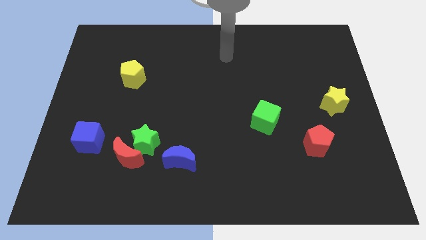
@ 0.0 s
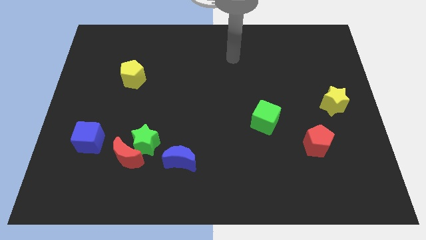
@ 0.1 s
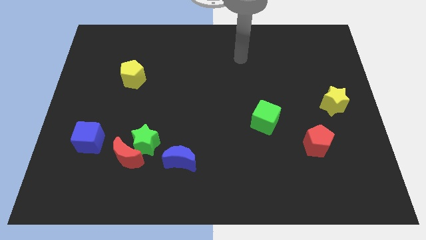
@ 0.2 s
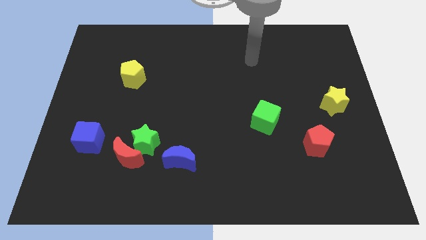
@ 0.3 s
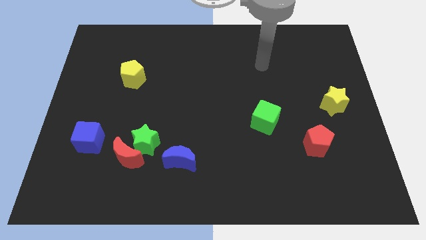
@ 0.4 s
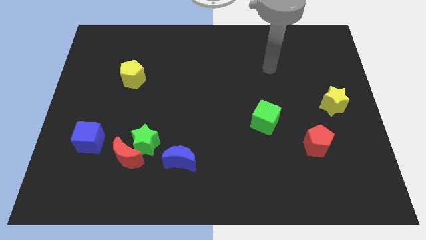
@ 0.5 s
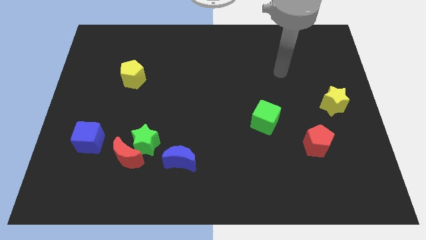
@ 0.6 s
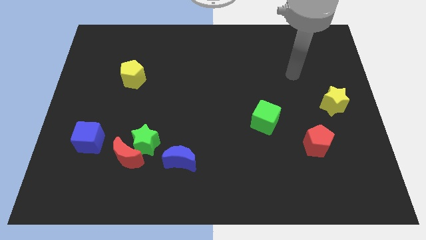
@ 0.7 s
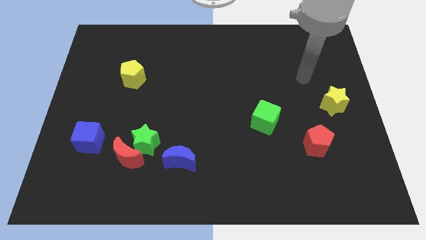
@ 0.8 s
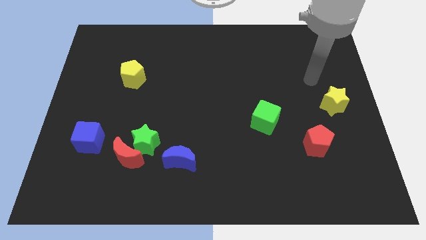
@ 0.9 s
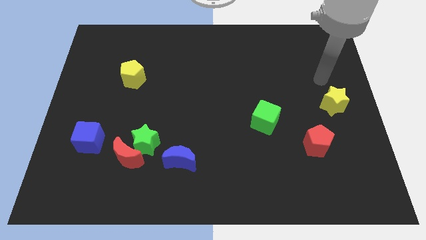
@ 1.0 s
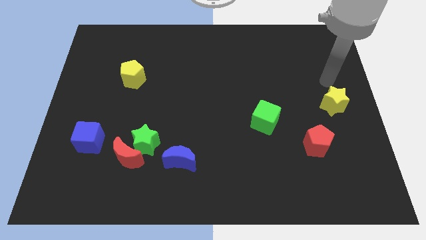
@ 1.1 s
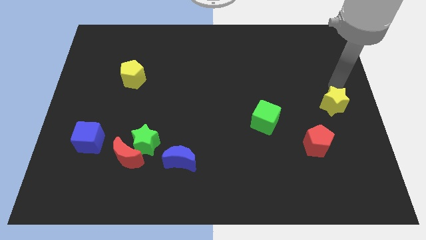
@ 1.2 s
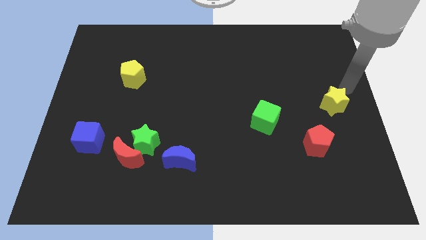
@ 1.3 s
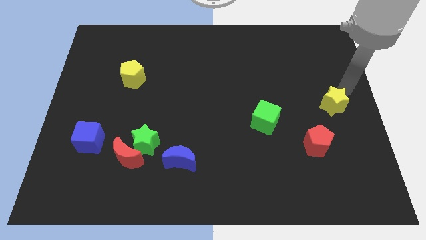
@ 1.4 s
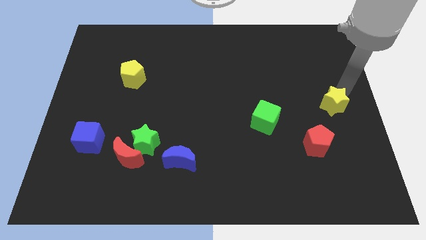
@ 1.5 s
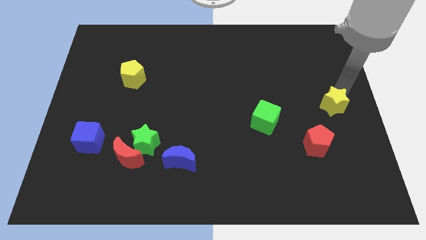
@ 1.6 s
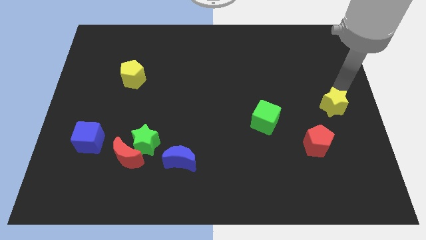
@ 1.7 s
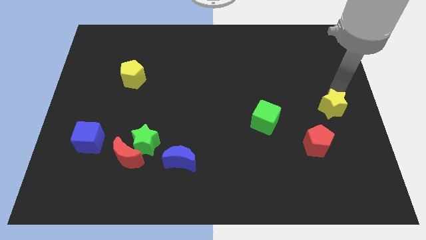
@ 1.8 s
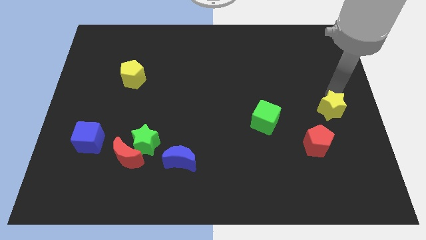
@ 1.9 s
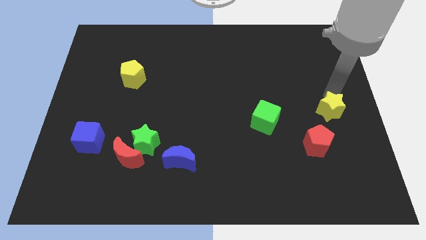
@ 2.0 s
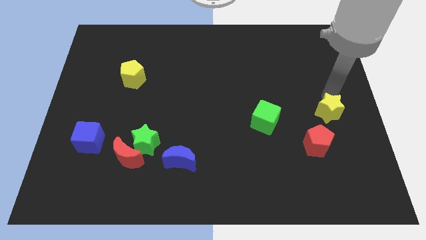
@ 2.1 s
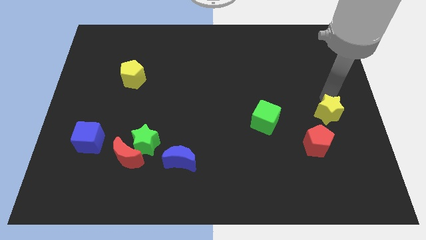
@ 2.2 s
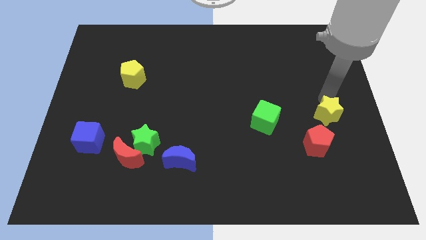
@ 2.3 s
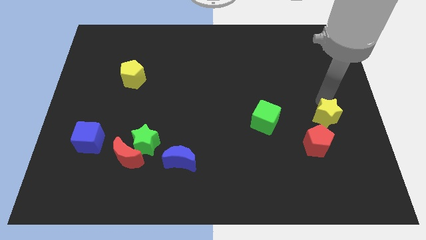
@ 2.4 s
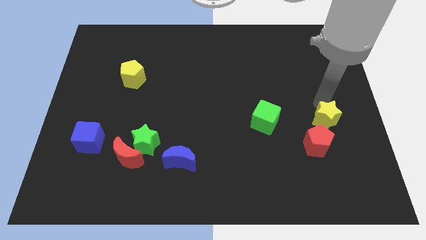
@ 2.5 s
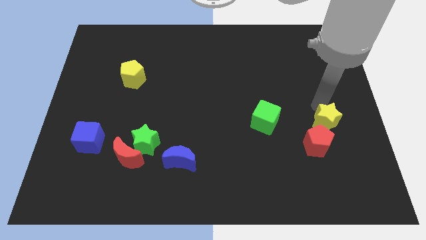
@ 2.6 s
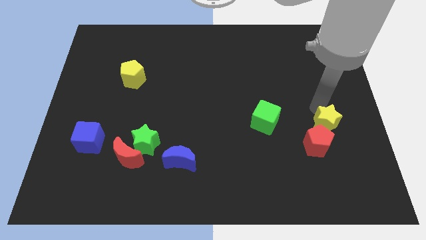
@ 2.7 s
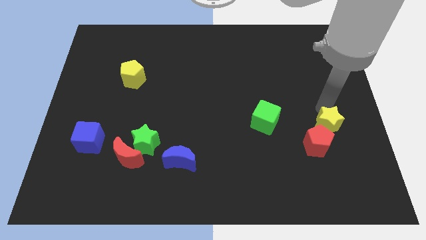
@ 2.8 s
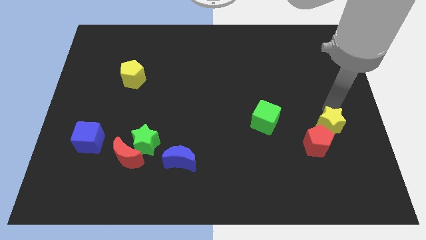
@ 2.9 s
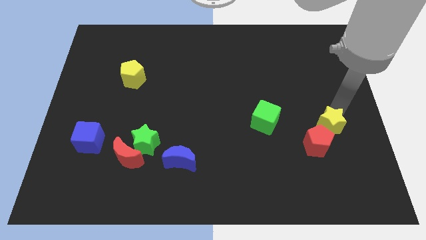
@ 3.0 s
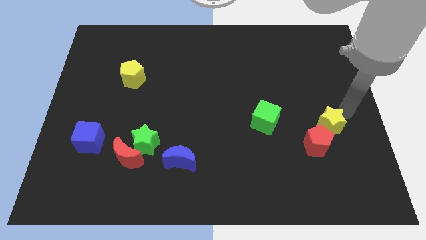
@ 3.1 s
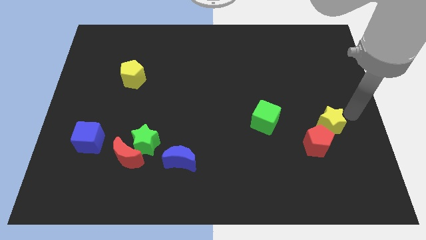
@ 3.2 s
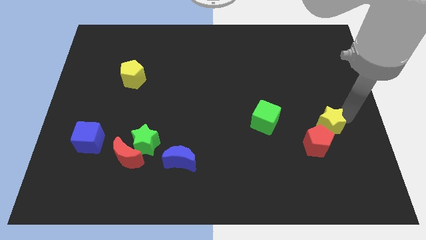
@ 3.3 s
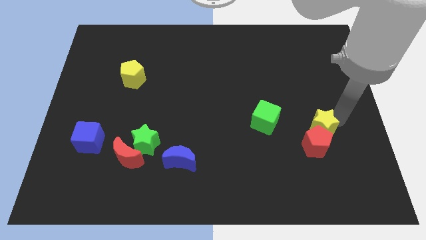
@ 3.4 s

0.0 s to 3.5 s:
slightly move the yellow star down and to the left diagonally

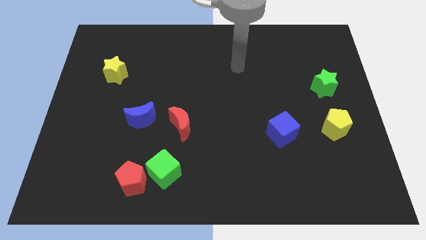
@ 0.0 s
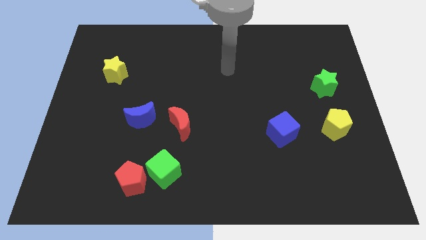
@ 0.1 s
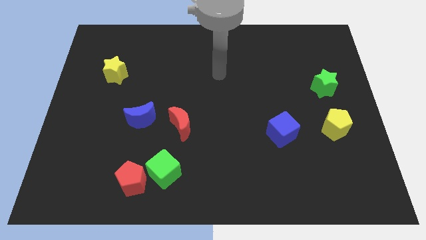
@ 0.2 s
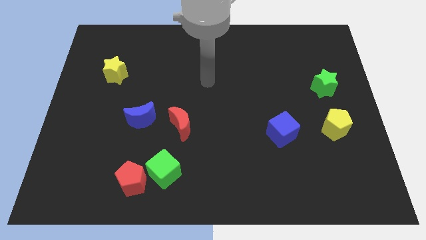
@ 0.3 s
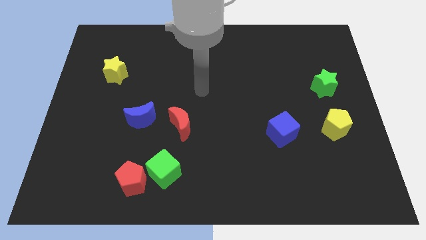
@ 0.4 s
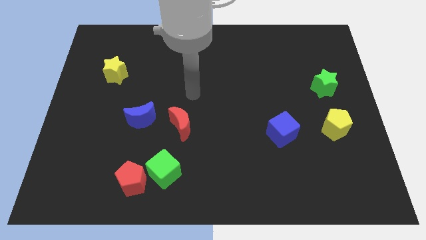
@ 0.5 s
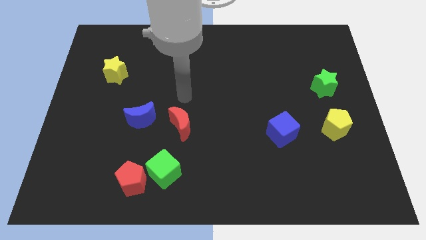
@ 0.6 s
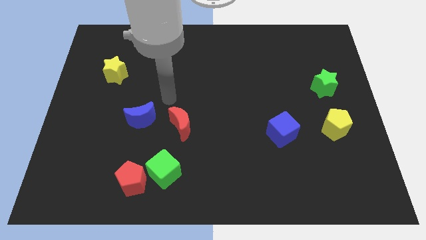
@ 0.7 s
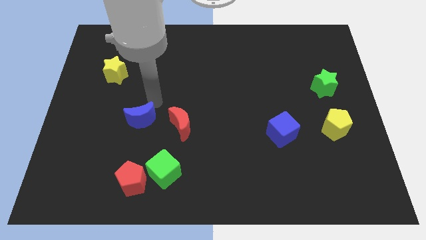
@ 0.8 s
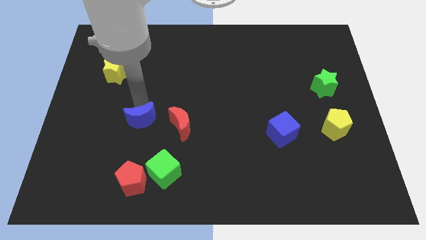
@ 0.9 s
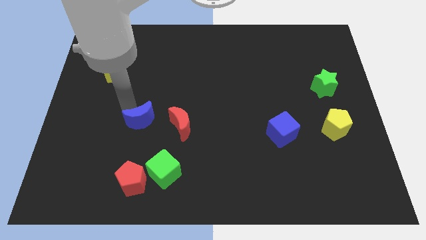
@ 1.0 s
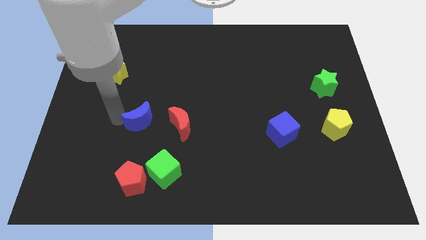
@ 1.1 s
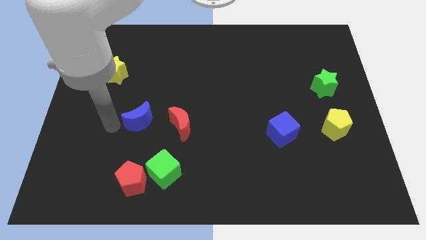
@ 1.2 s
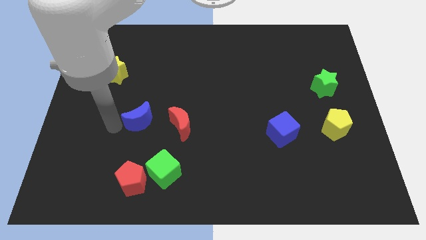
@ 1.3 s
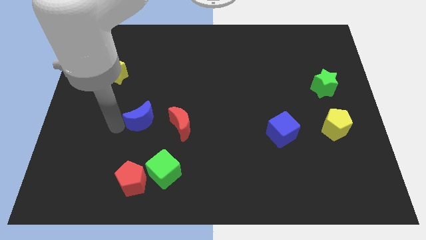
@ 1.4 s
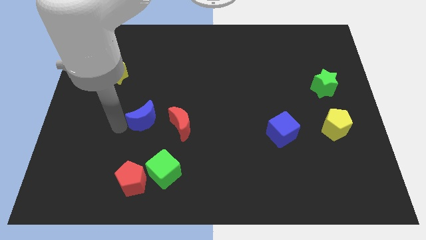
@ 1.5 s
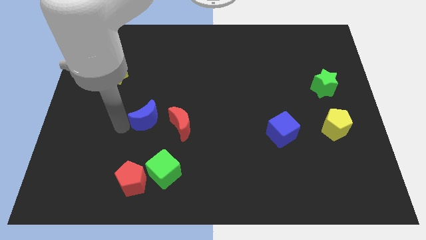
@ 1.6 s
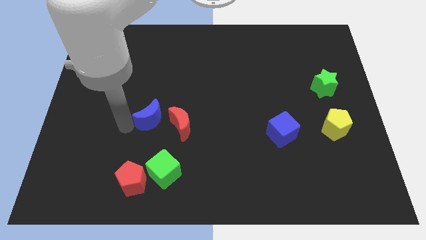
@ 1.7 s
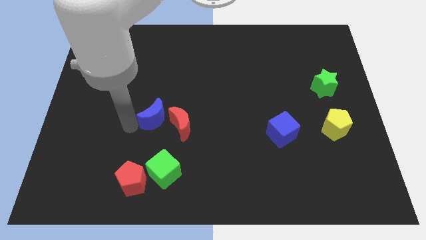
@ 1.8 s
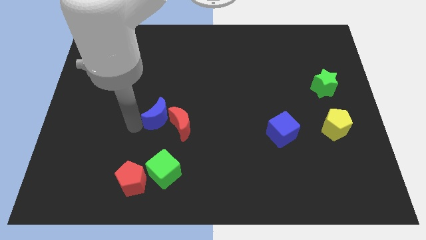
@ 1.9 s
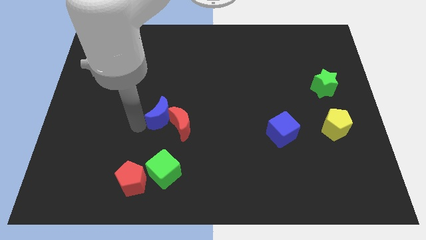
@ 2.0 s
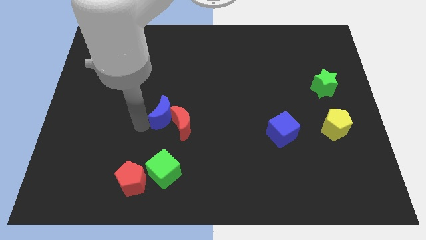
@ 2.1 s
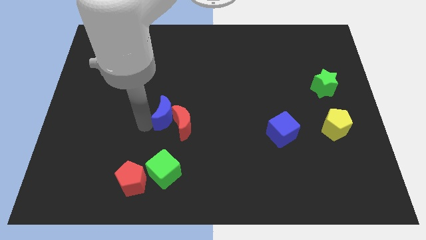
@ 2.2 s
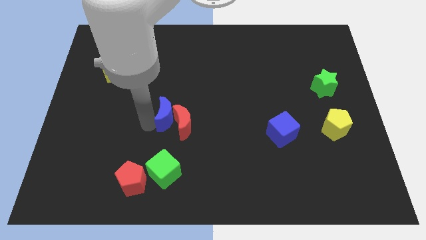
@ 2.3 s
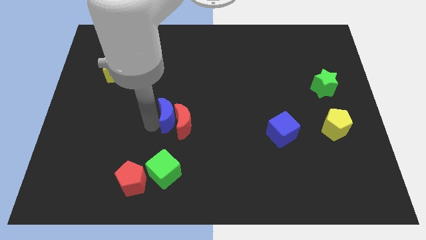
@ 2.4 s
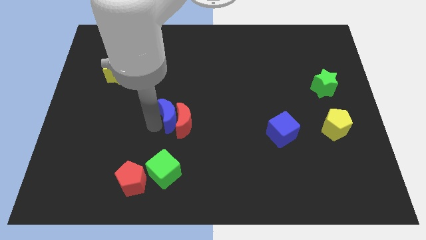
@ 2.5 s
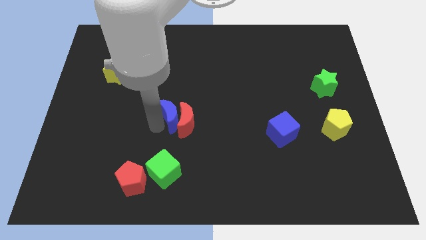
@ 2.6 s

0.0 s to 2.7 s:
slightly slide the blue moon right

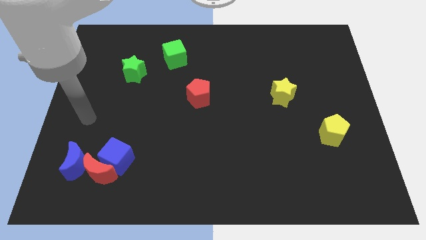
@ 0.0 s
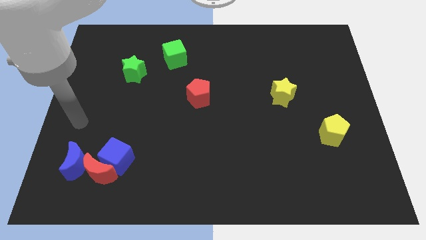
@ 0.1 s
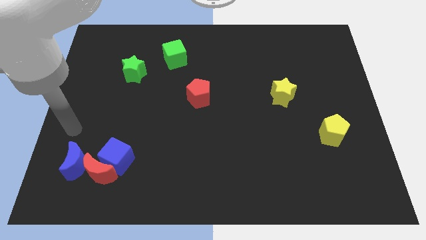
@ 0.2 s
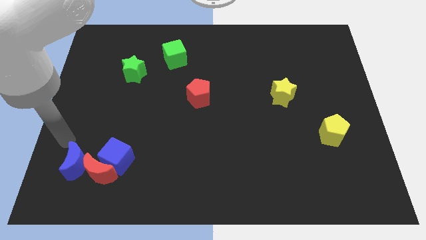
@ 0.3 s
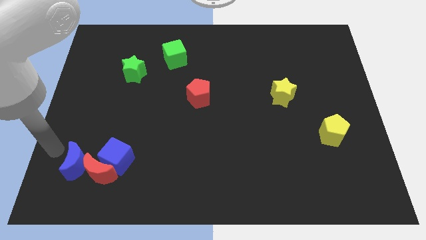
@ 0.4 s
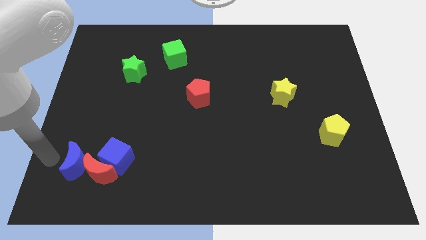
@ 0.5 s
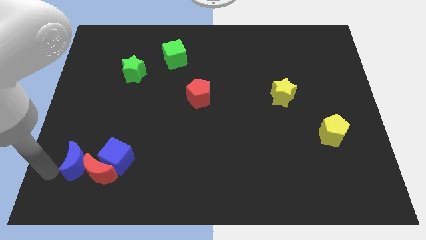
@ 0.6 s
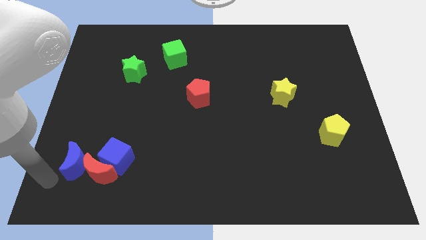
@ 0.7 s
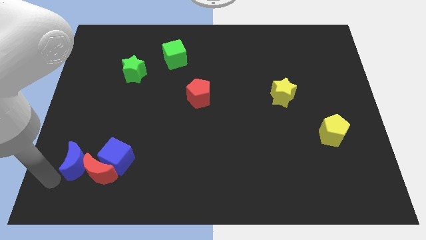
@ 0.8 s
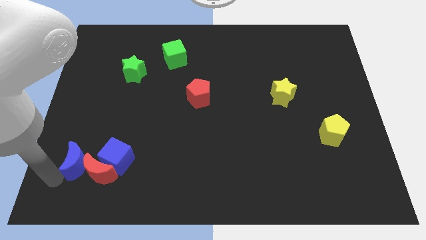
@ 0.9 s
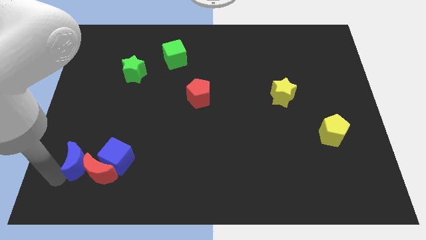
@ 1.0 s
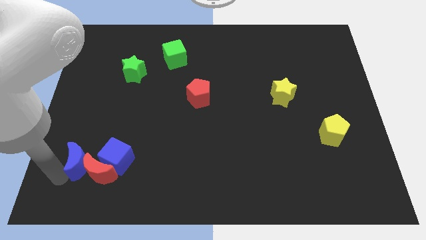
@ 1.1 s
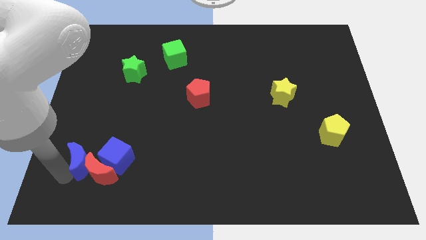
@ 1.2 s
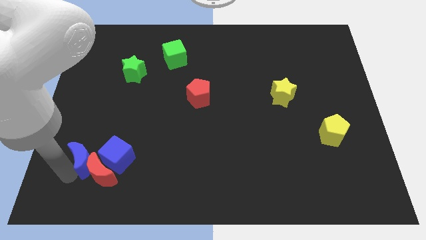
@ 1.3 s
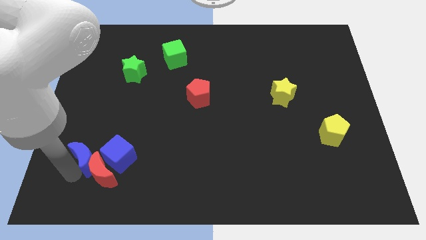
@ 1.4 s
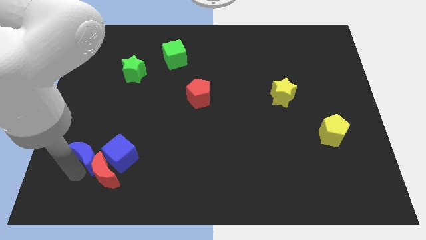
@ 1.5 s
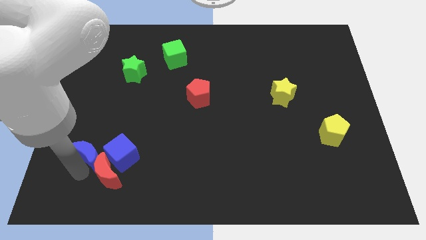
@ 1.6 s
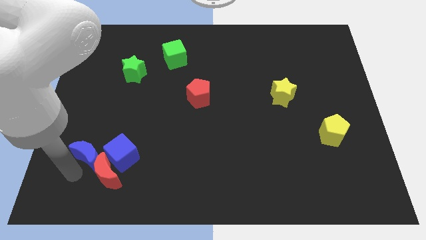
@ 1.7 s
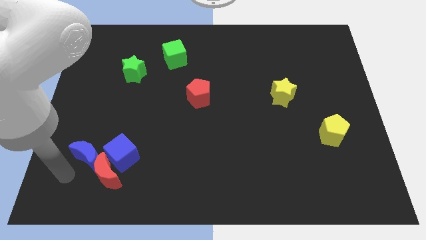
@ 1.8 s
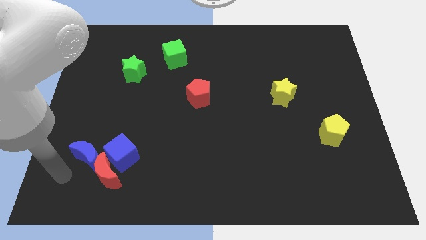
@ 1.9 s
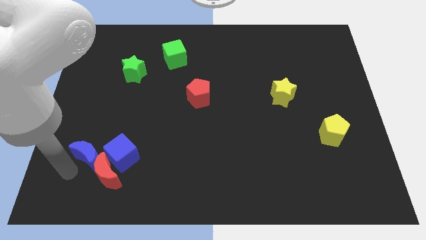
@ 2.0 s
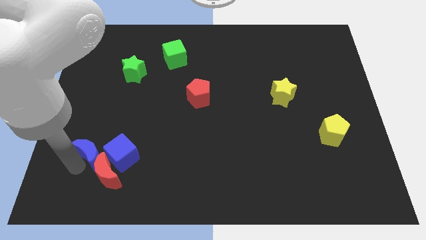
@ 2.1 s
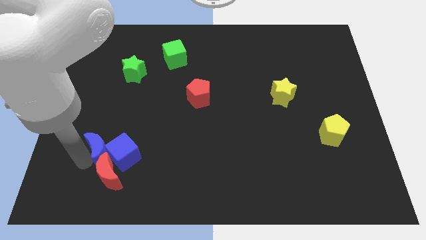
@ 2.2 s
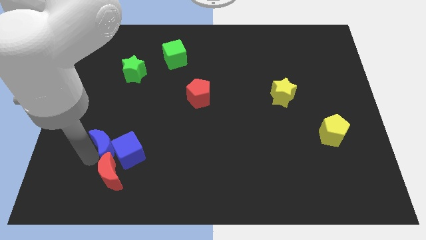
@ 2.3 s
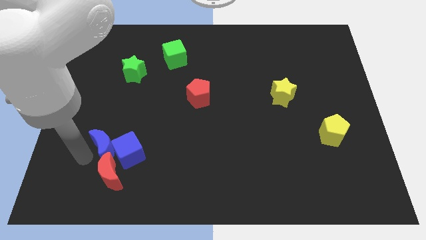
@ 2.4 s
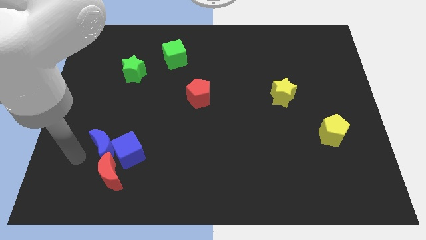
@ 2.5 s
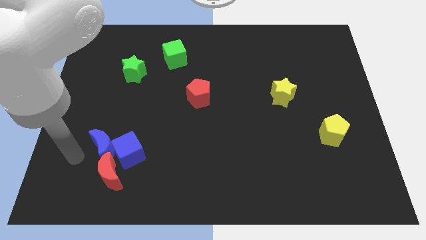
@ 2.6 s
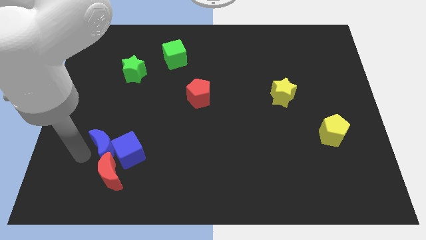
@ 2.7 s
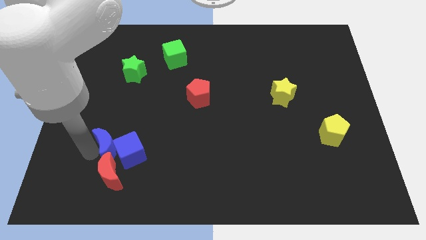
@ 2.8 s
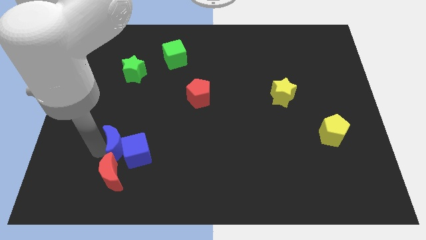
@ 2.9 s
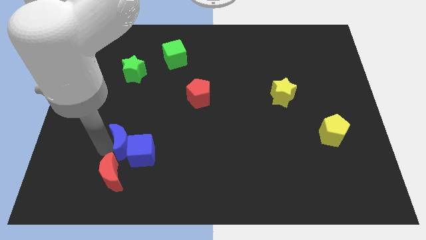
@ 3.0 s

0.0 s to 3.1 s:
slightly push the blue moon to the right
